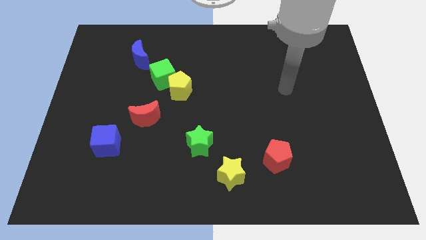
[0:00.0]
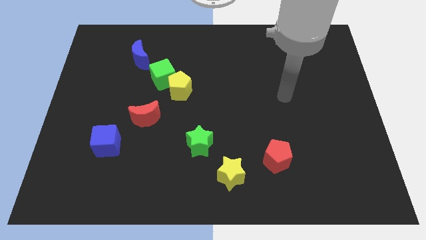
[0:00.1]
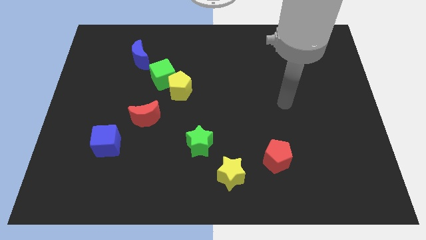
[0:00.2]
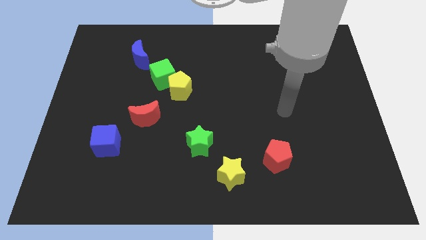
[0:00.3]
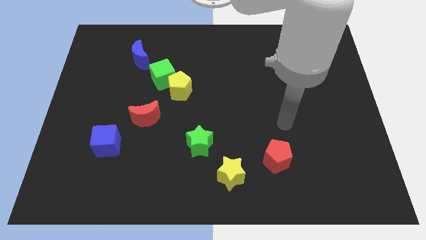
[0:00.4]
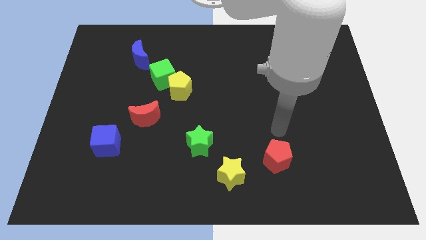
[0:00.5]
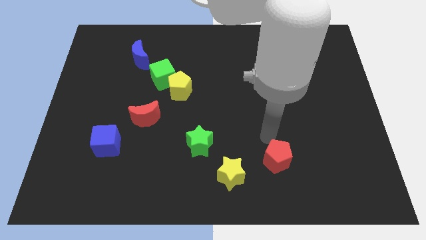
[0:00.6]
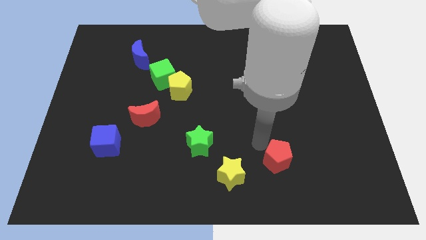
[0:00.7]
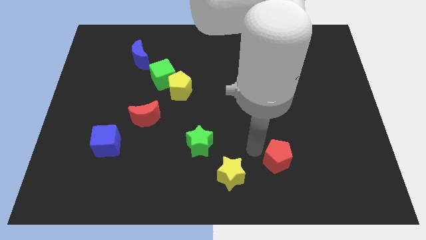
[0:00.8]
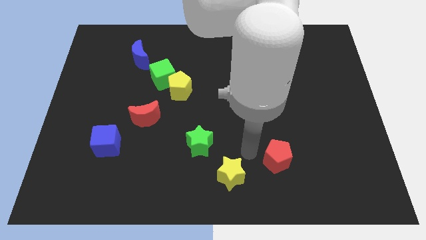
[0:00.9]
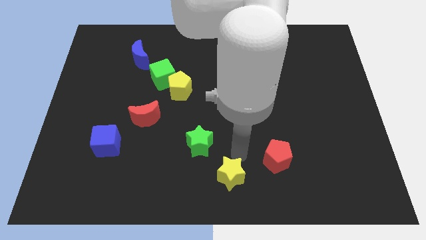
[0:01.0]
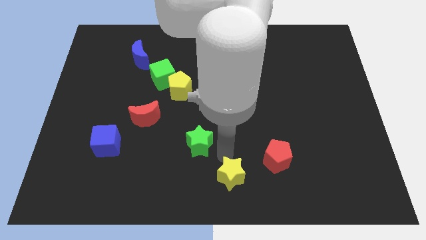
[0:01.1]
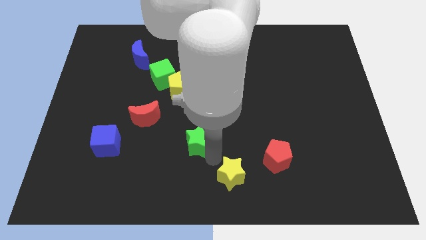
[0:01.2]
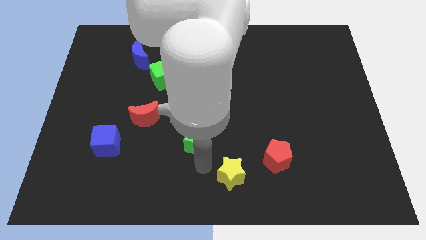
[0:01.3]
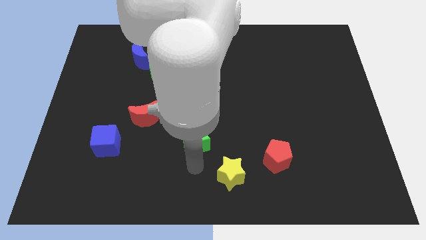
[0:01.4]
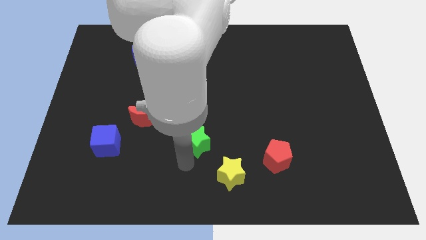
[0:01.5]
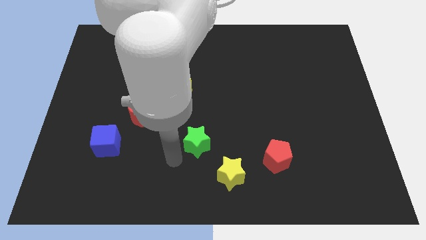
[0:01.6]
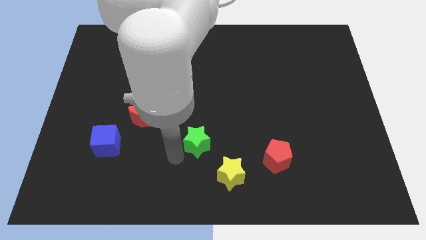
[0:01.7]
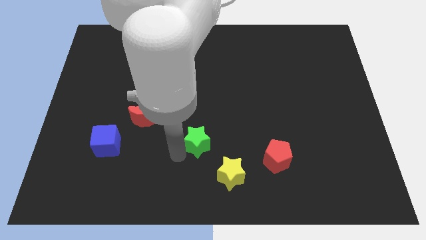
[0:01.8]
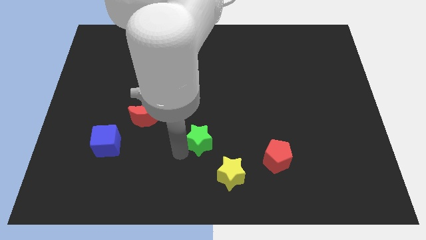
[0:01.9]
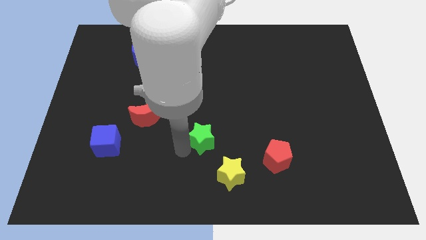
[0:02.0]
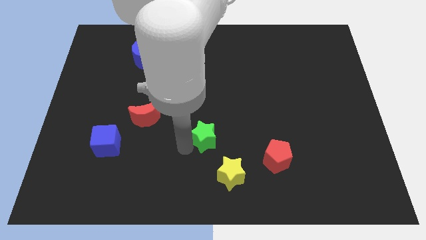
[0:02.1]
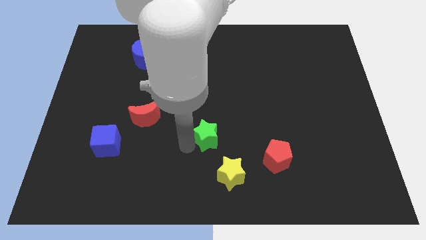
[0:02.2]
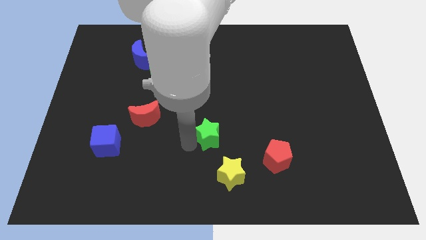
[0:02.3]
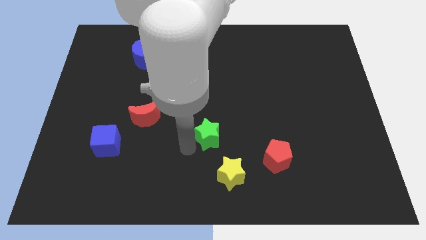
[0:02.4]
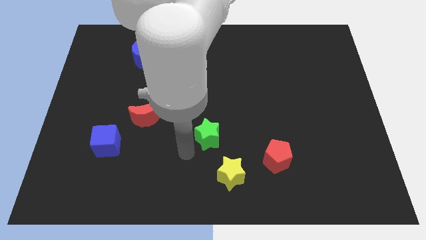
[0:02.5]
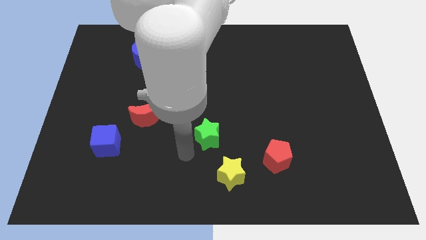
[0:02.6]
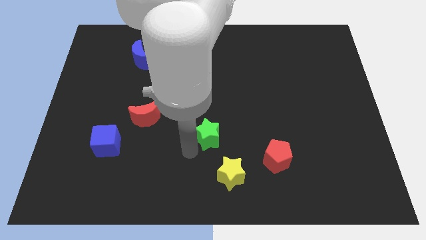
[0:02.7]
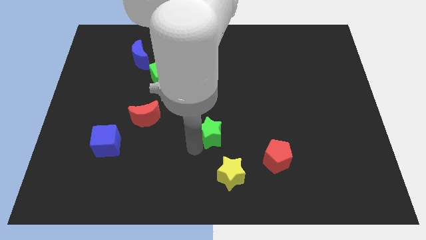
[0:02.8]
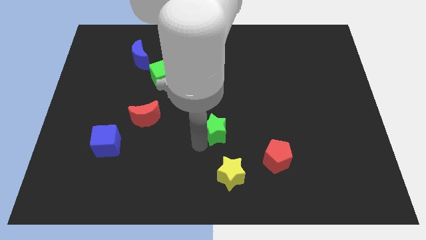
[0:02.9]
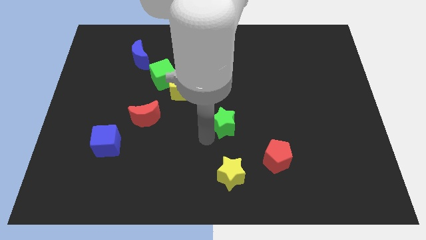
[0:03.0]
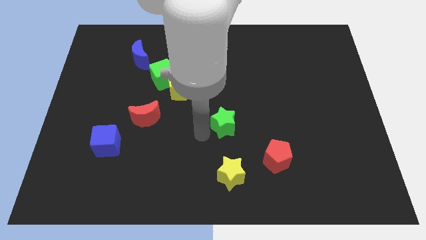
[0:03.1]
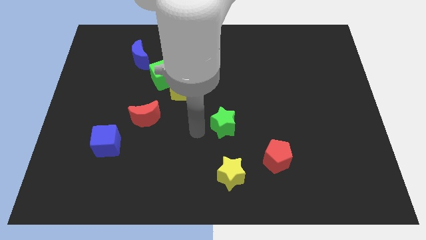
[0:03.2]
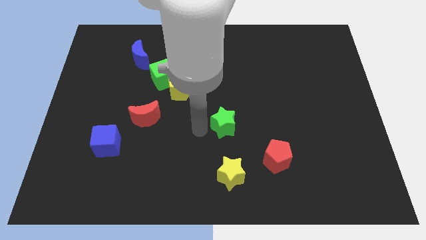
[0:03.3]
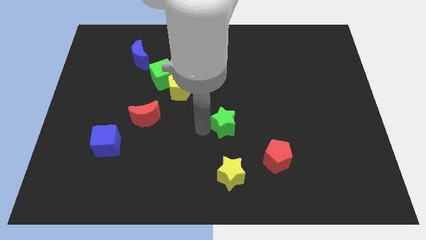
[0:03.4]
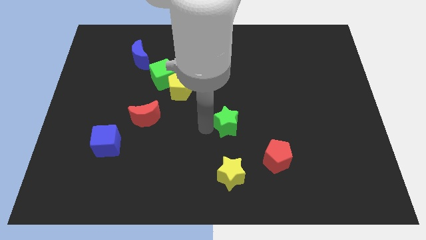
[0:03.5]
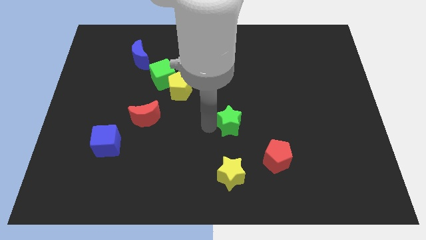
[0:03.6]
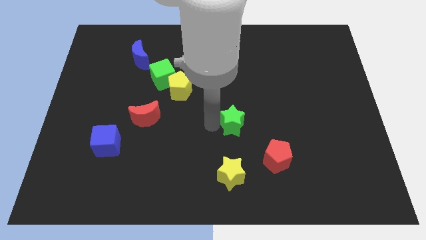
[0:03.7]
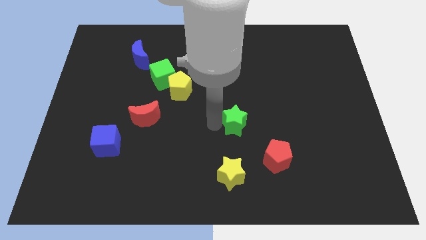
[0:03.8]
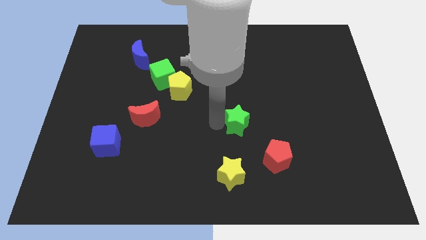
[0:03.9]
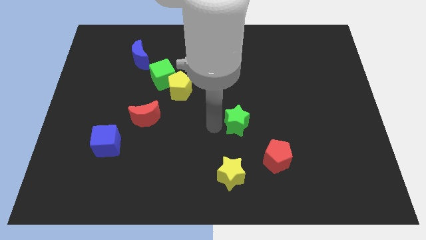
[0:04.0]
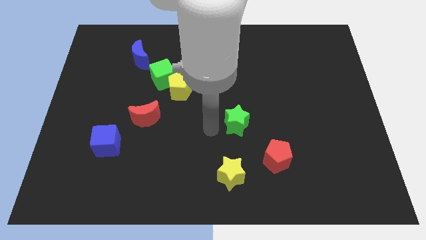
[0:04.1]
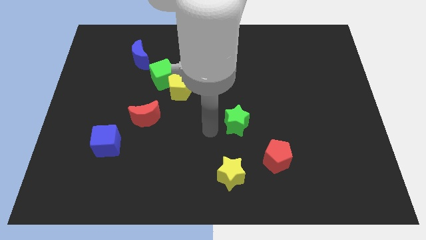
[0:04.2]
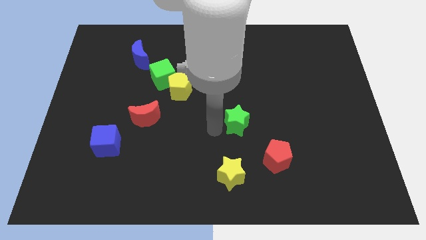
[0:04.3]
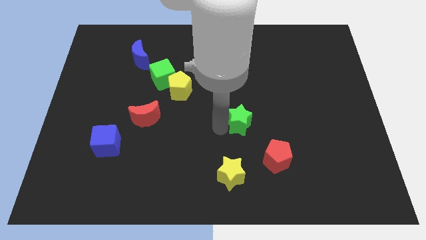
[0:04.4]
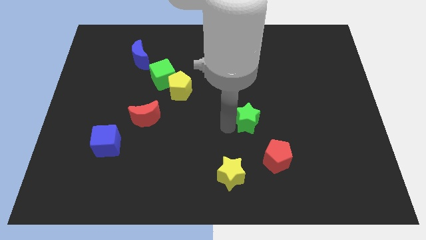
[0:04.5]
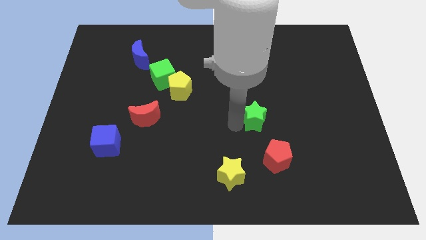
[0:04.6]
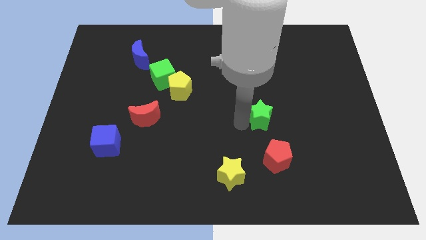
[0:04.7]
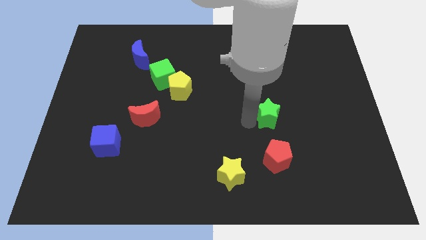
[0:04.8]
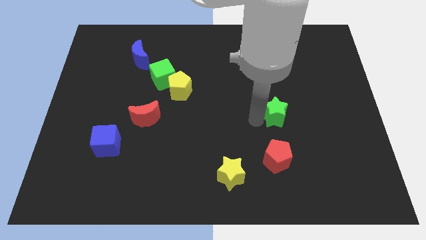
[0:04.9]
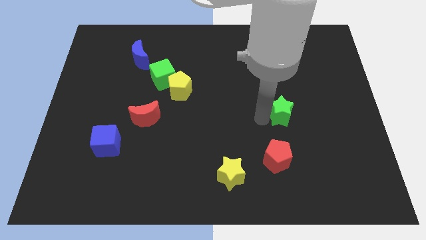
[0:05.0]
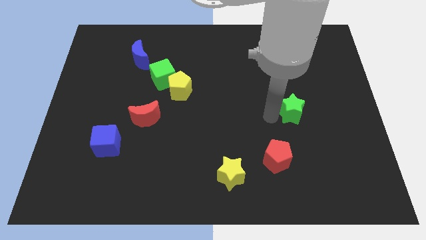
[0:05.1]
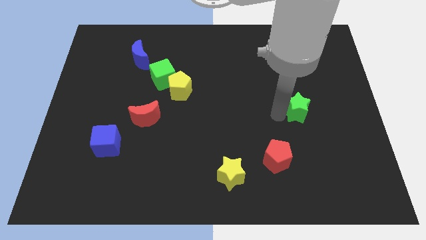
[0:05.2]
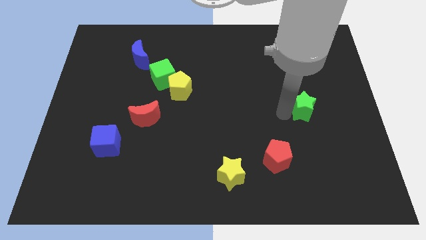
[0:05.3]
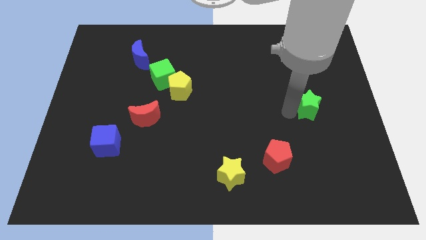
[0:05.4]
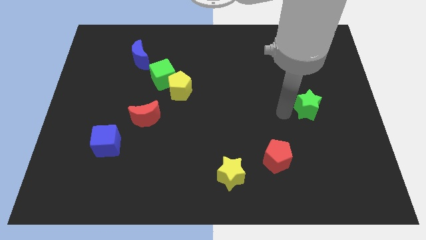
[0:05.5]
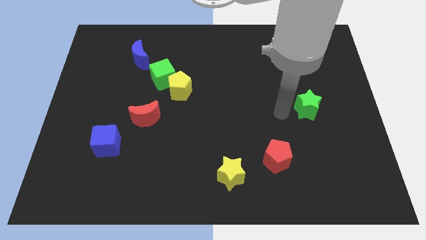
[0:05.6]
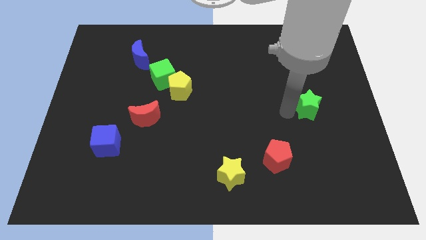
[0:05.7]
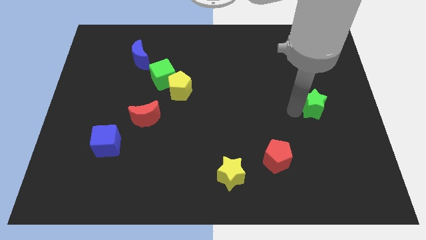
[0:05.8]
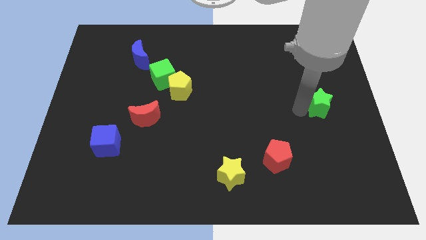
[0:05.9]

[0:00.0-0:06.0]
put the green star to the right side
